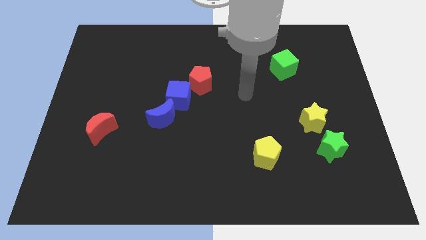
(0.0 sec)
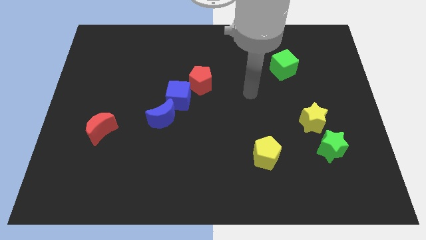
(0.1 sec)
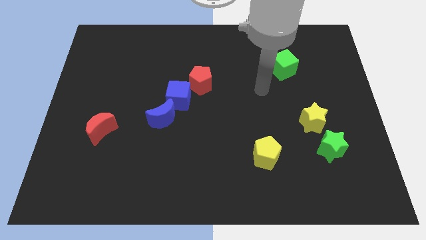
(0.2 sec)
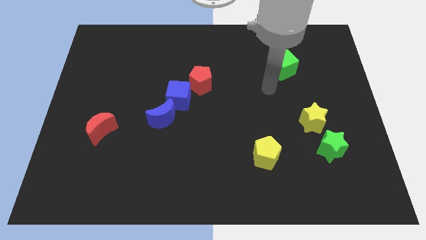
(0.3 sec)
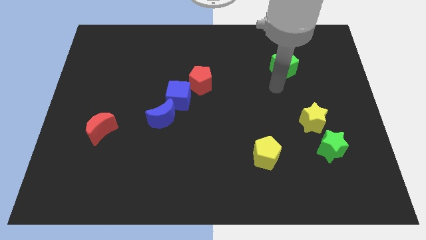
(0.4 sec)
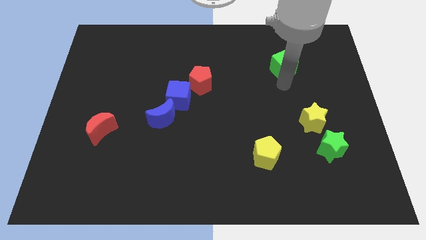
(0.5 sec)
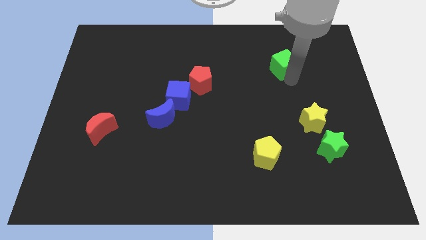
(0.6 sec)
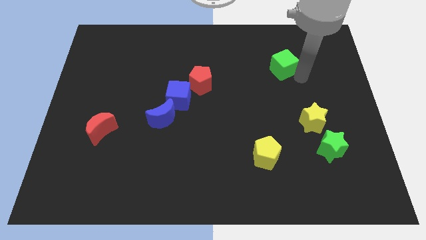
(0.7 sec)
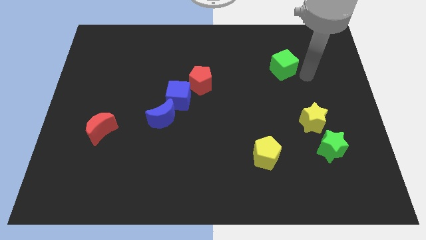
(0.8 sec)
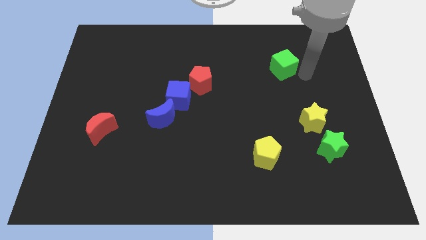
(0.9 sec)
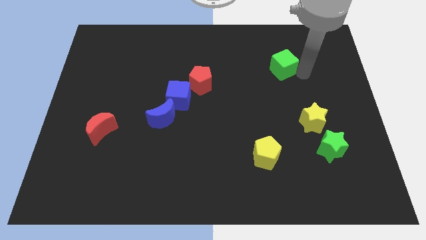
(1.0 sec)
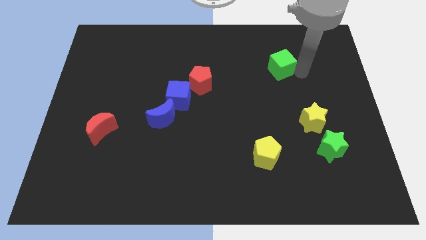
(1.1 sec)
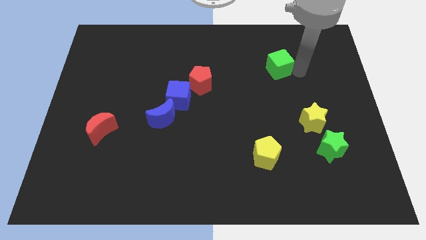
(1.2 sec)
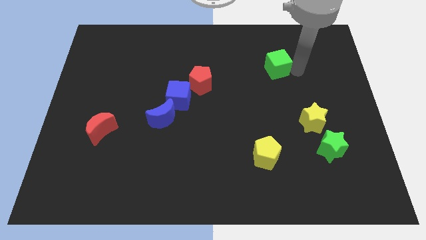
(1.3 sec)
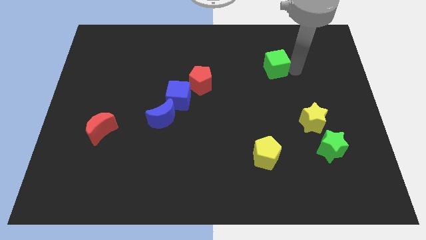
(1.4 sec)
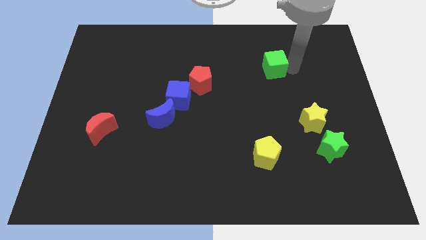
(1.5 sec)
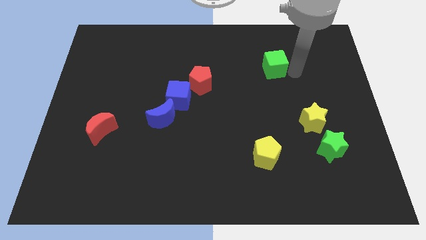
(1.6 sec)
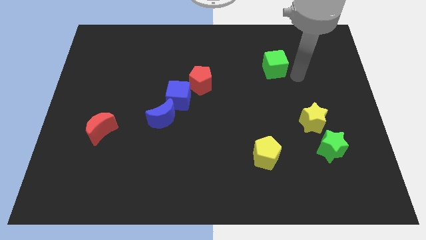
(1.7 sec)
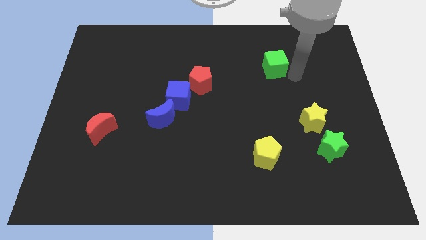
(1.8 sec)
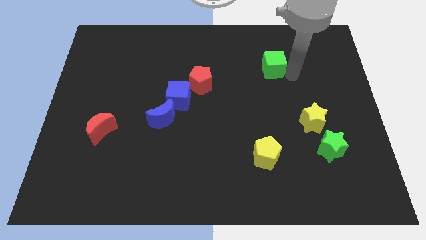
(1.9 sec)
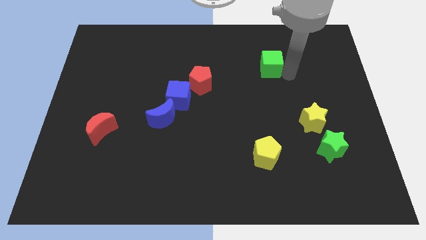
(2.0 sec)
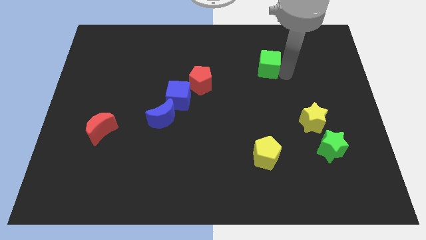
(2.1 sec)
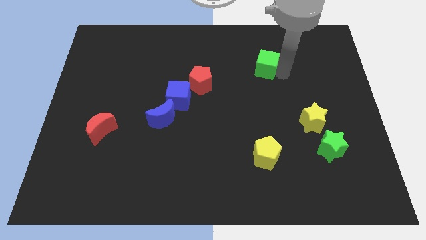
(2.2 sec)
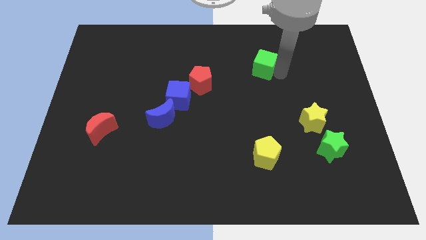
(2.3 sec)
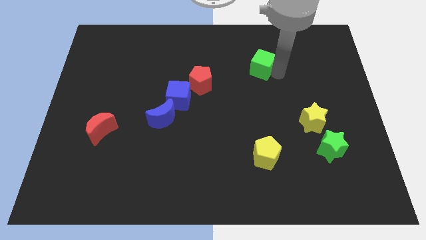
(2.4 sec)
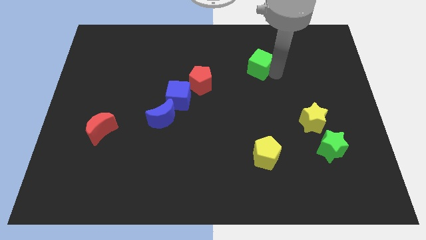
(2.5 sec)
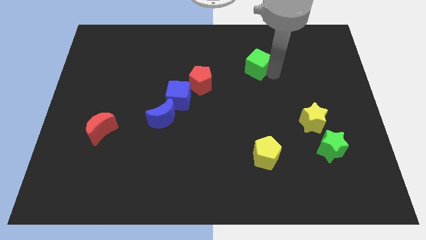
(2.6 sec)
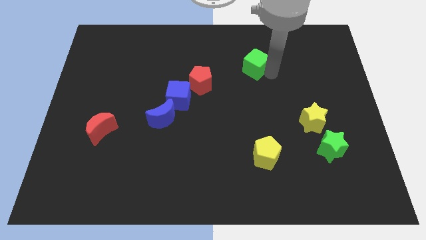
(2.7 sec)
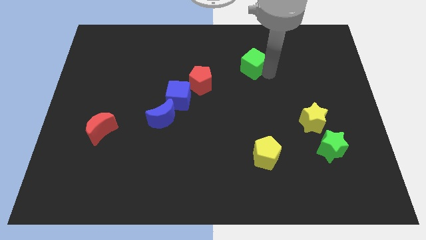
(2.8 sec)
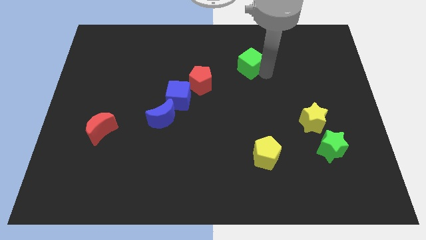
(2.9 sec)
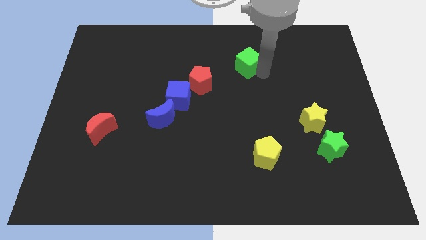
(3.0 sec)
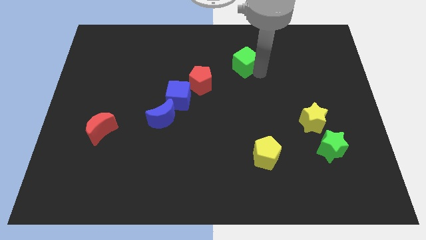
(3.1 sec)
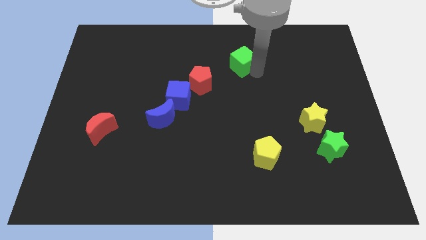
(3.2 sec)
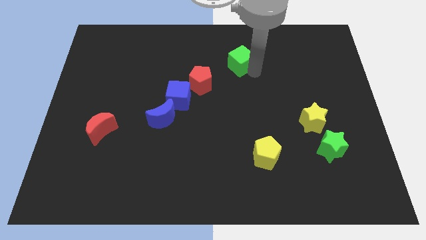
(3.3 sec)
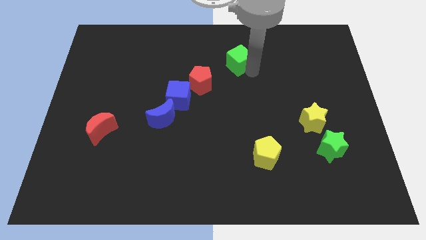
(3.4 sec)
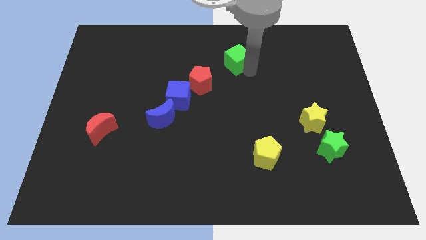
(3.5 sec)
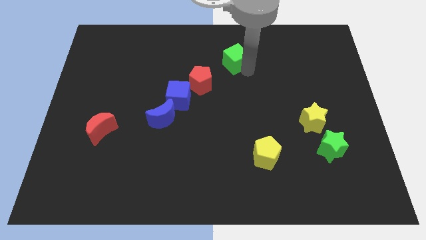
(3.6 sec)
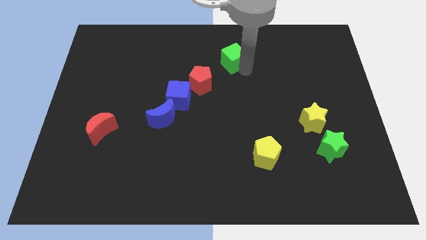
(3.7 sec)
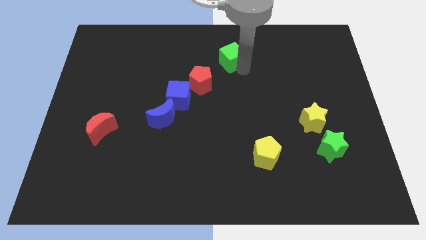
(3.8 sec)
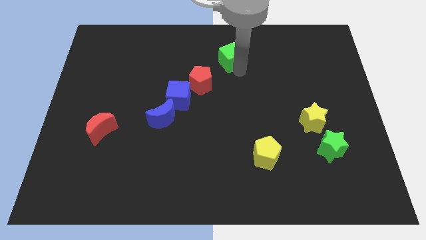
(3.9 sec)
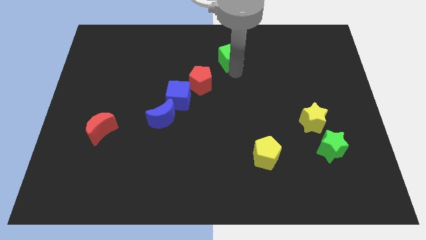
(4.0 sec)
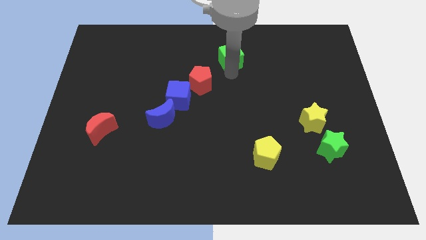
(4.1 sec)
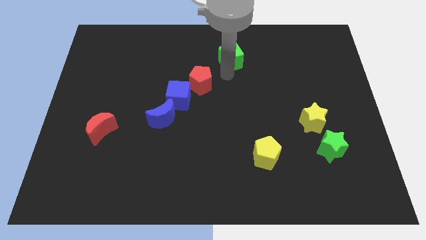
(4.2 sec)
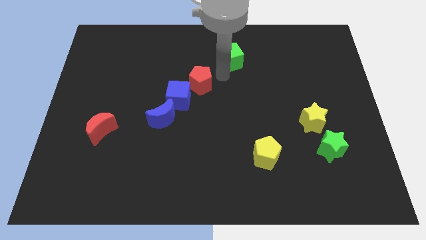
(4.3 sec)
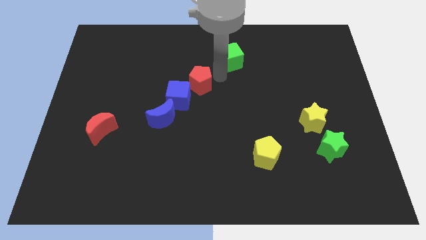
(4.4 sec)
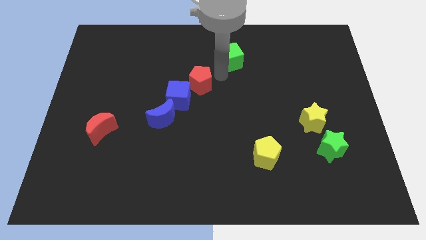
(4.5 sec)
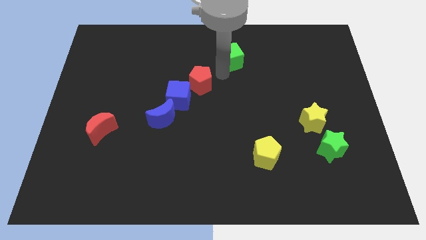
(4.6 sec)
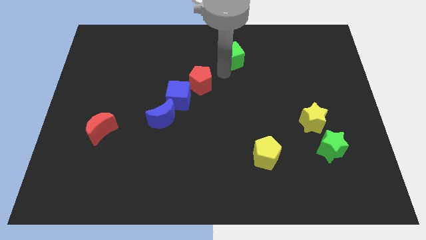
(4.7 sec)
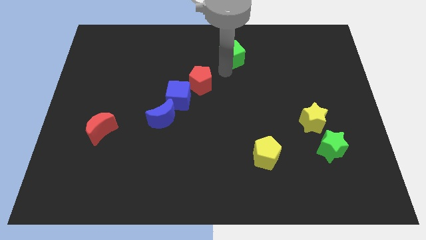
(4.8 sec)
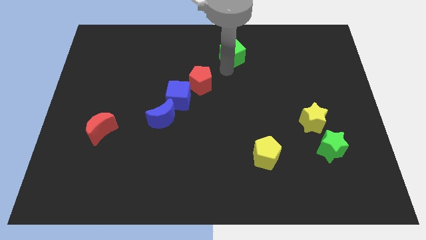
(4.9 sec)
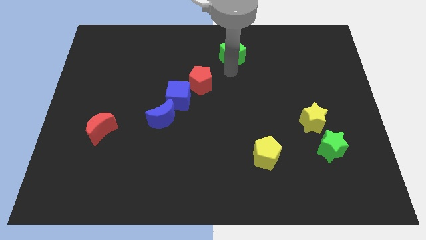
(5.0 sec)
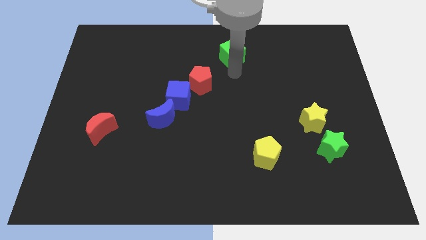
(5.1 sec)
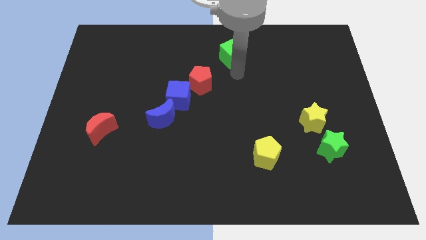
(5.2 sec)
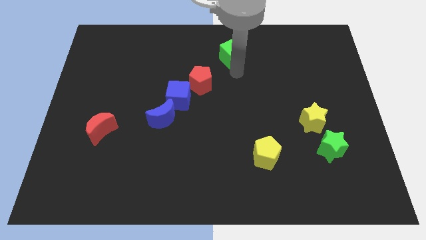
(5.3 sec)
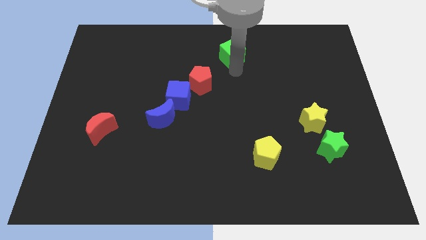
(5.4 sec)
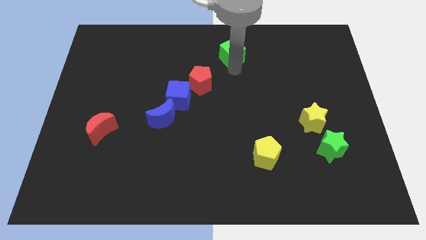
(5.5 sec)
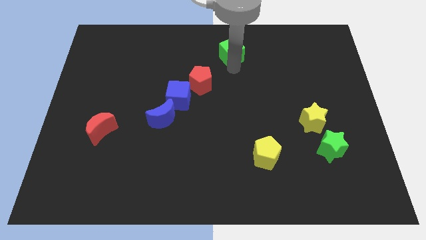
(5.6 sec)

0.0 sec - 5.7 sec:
move the green cube to the top

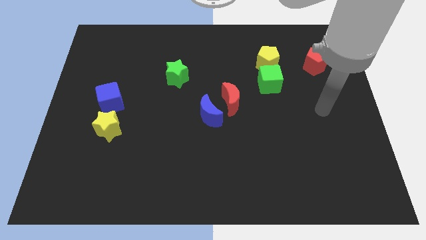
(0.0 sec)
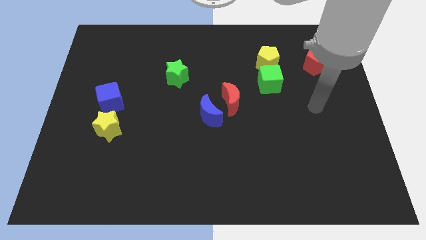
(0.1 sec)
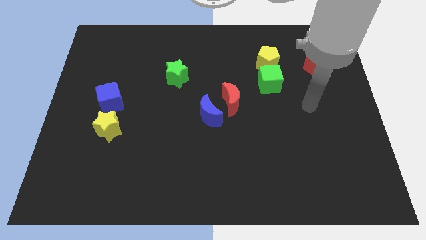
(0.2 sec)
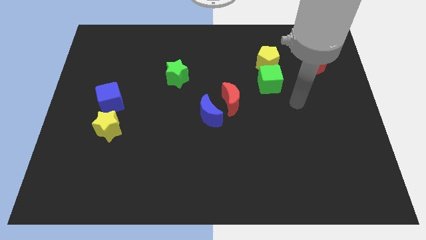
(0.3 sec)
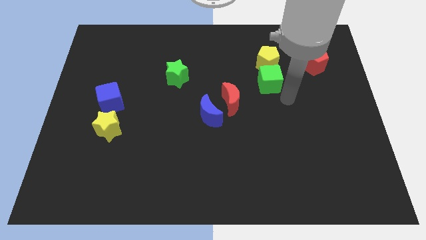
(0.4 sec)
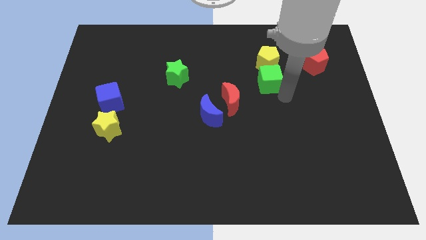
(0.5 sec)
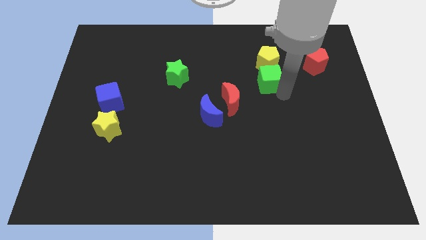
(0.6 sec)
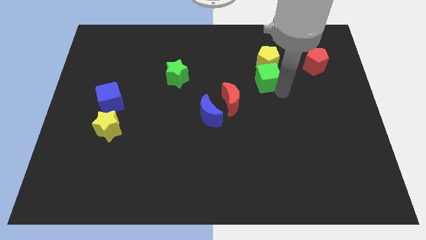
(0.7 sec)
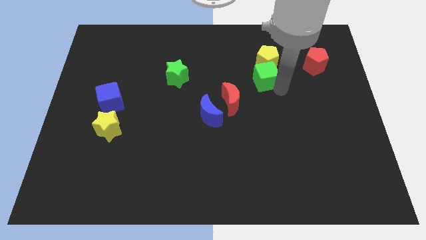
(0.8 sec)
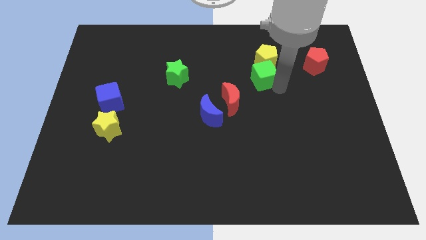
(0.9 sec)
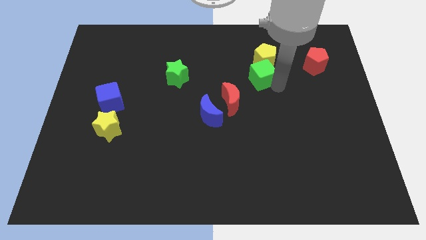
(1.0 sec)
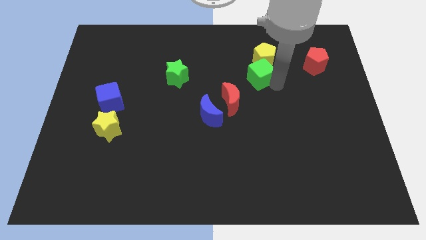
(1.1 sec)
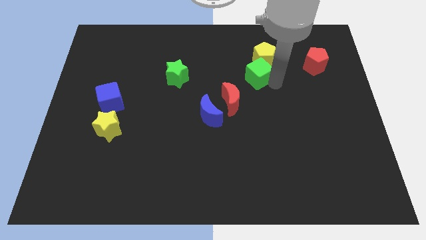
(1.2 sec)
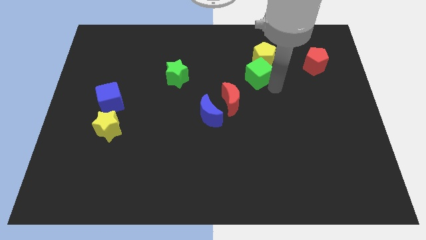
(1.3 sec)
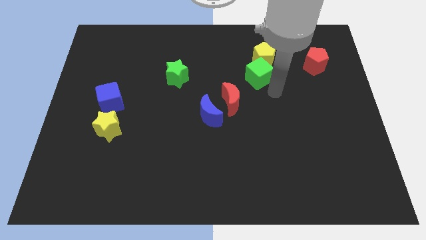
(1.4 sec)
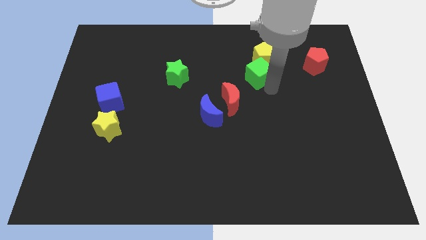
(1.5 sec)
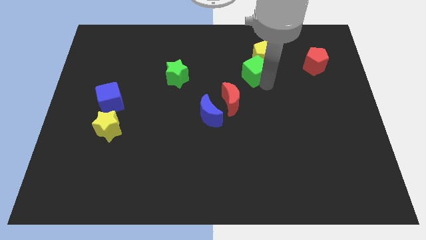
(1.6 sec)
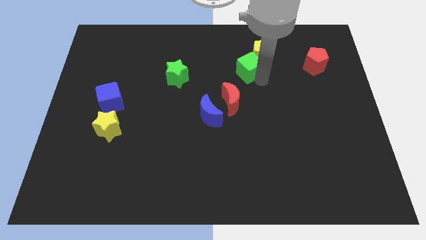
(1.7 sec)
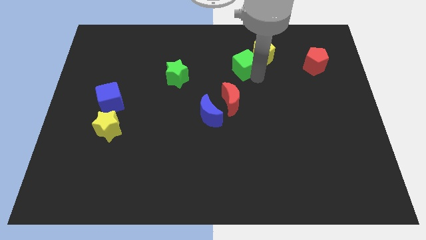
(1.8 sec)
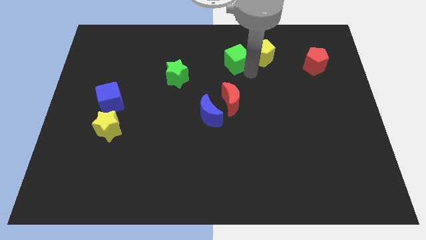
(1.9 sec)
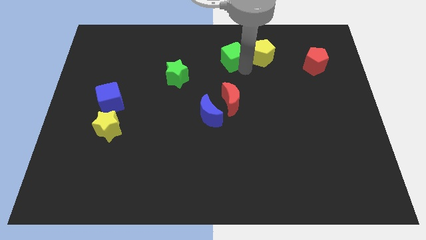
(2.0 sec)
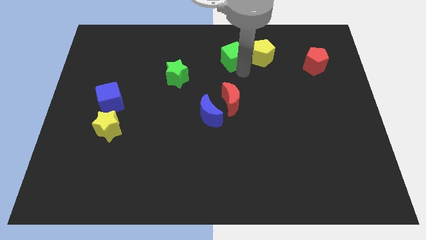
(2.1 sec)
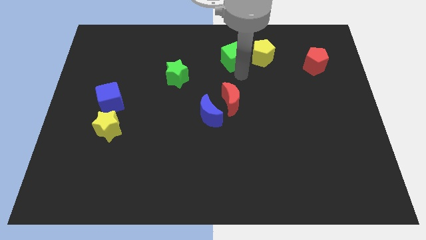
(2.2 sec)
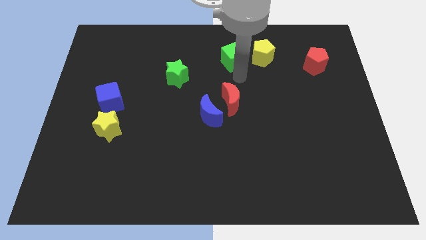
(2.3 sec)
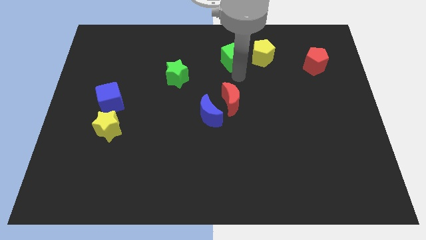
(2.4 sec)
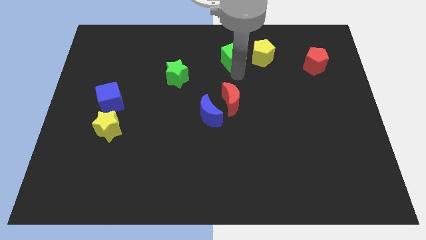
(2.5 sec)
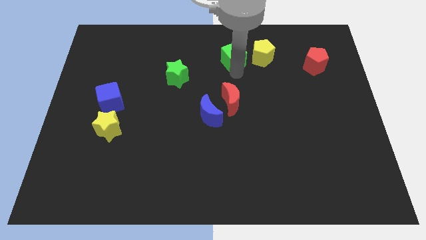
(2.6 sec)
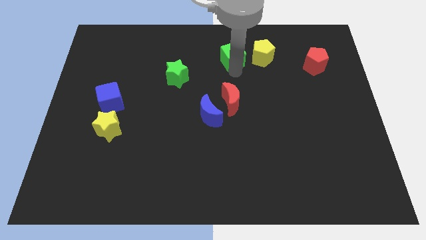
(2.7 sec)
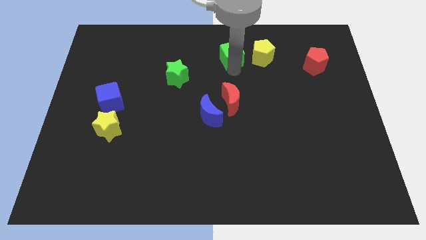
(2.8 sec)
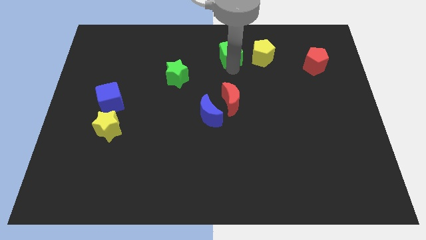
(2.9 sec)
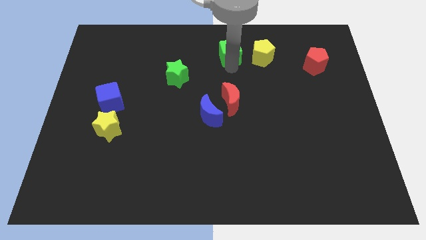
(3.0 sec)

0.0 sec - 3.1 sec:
put the green cube to the top
